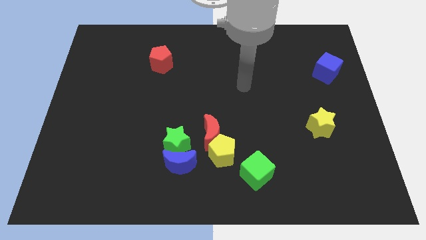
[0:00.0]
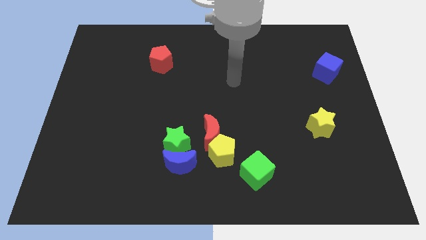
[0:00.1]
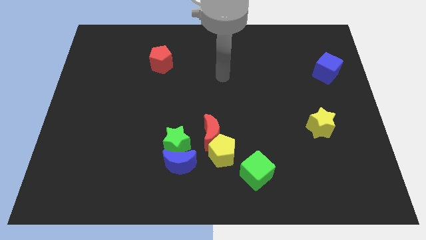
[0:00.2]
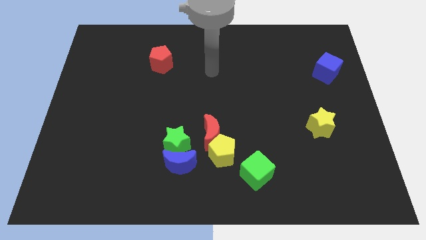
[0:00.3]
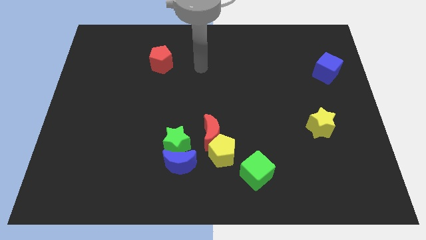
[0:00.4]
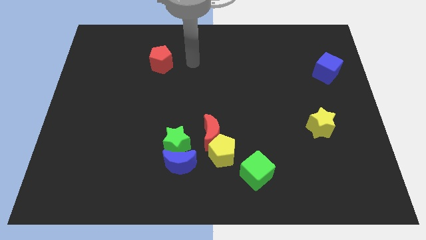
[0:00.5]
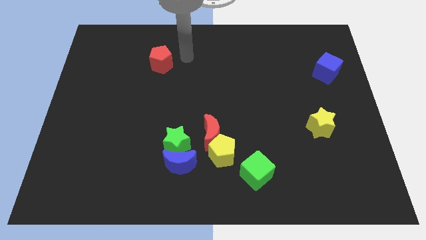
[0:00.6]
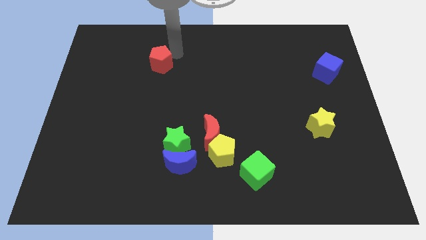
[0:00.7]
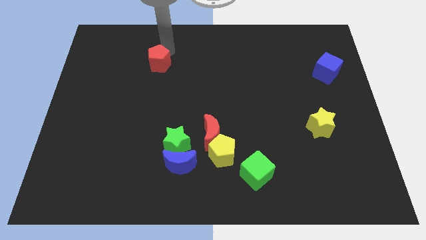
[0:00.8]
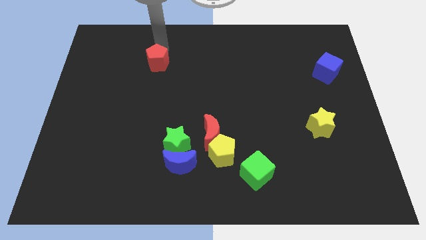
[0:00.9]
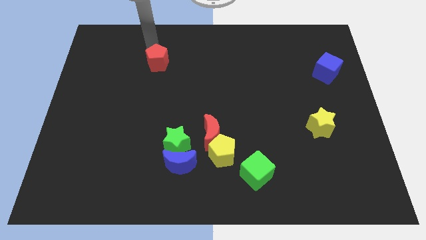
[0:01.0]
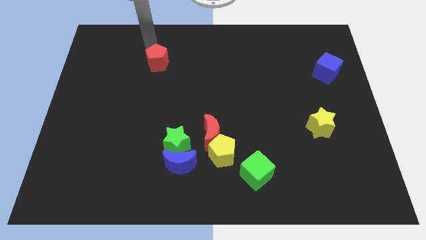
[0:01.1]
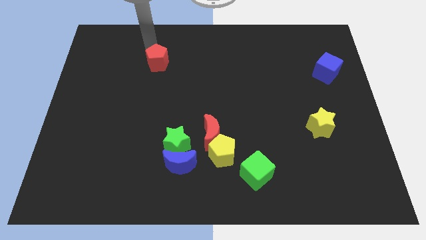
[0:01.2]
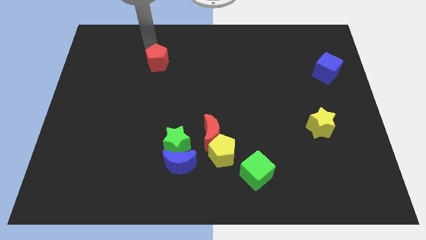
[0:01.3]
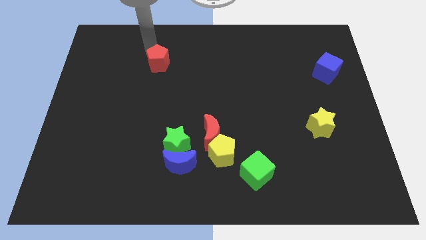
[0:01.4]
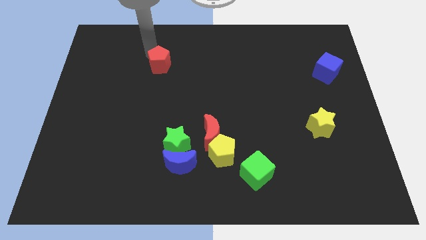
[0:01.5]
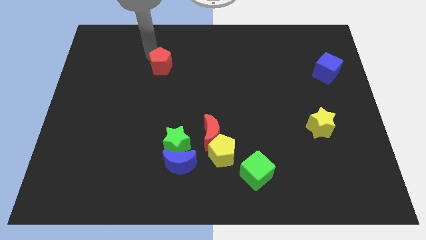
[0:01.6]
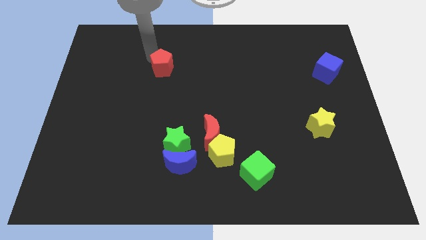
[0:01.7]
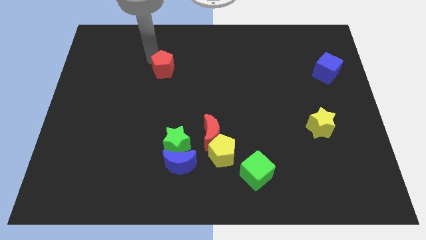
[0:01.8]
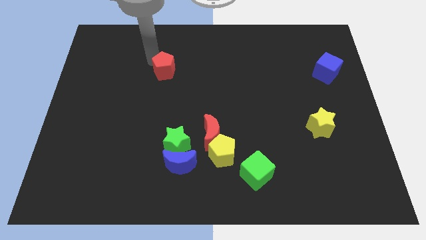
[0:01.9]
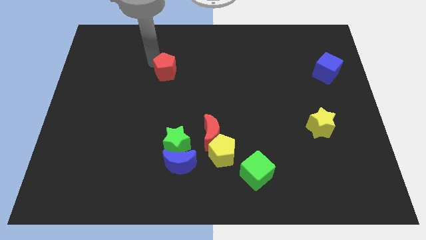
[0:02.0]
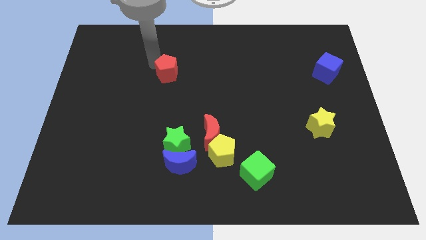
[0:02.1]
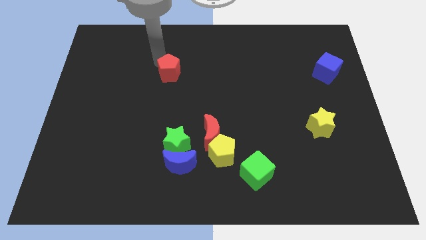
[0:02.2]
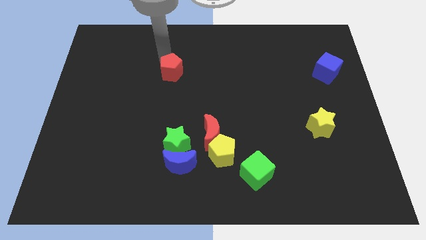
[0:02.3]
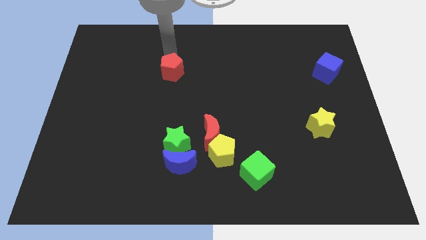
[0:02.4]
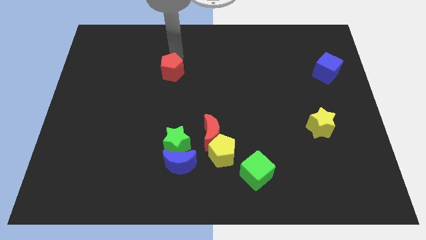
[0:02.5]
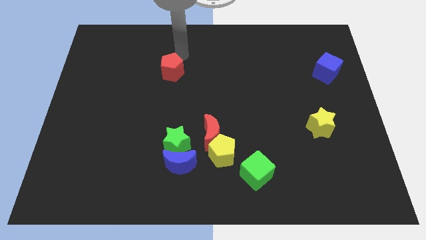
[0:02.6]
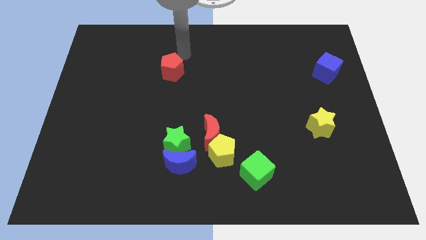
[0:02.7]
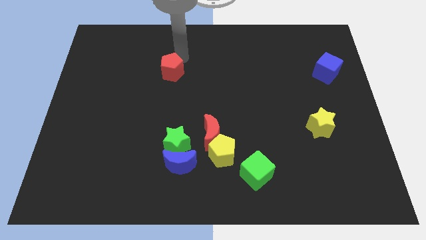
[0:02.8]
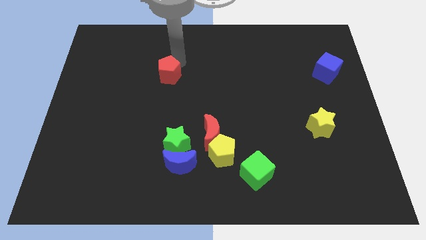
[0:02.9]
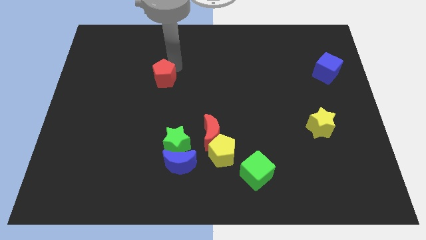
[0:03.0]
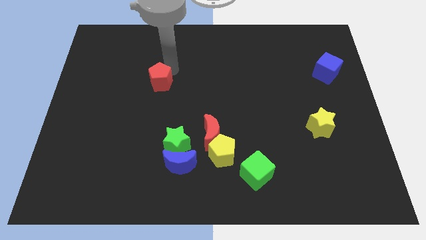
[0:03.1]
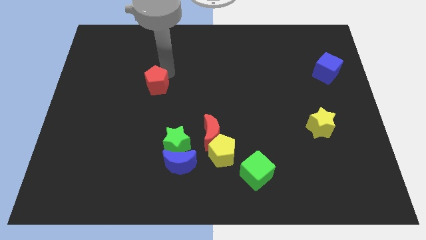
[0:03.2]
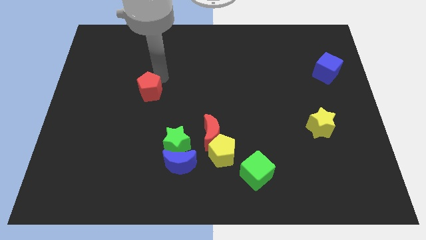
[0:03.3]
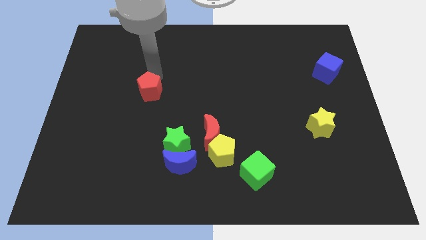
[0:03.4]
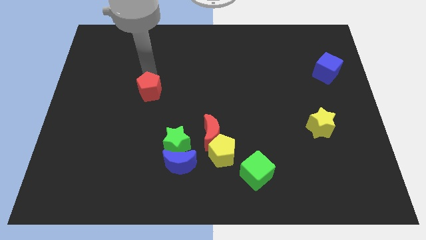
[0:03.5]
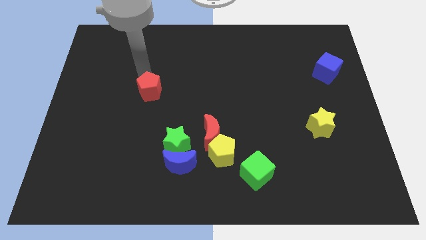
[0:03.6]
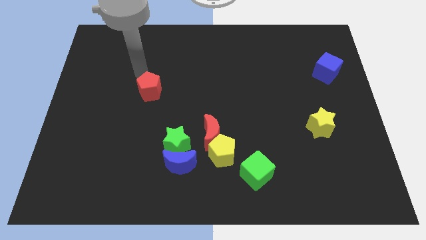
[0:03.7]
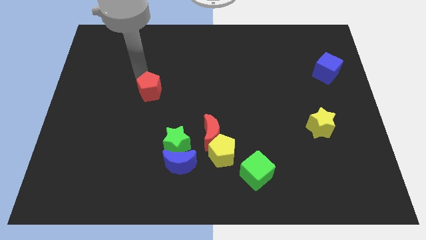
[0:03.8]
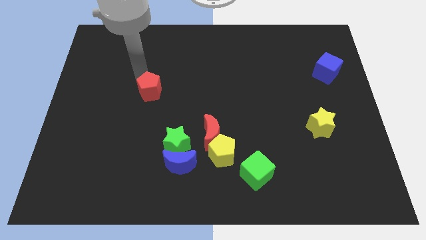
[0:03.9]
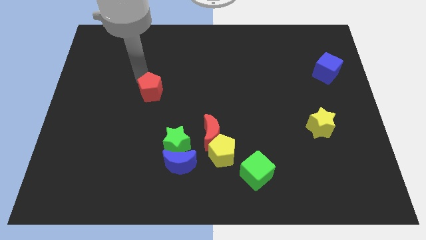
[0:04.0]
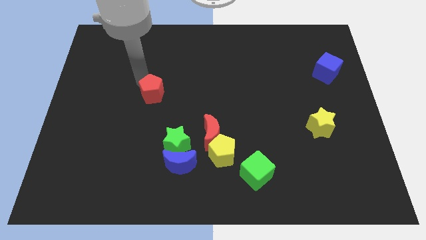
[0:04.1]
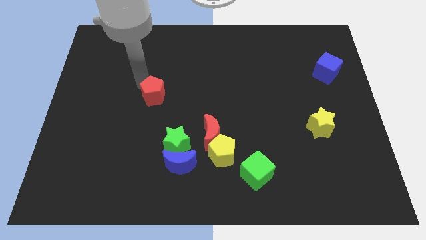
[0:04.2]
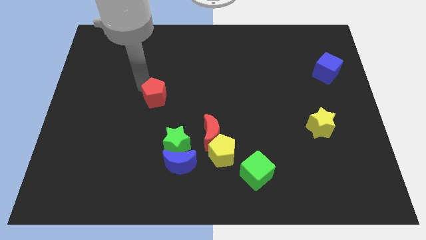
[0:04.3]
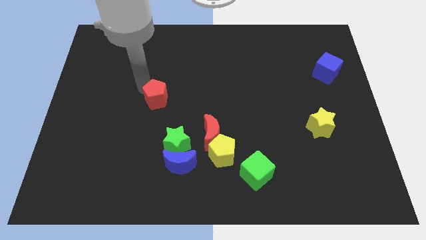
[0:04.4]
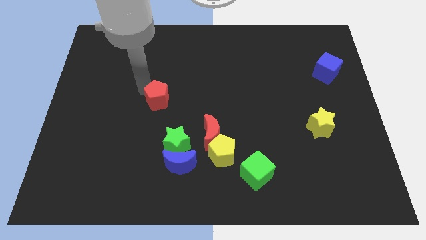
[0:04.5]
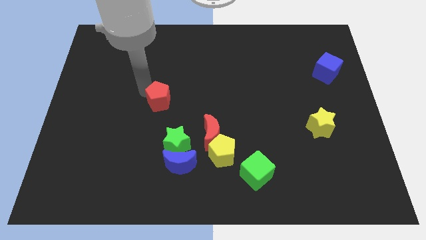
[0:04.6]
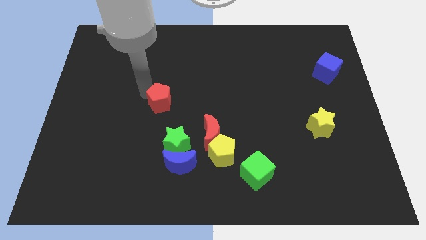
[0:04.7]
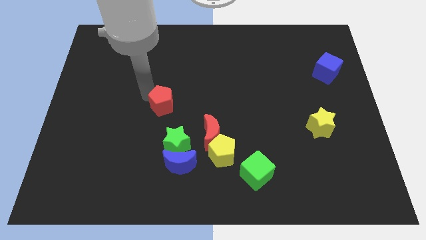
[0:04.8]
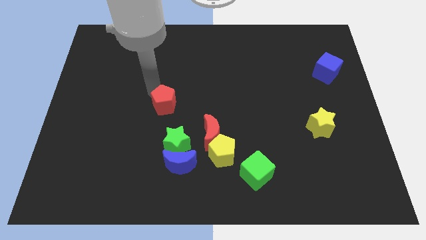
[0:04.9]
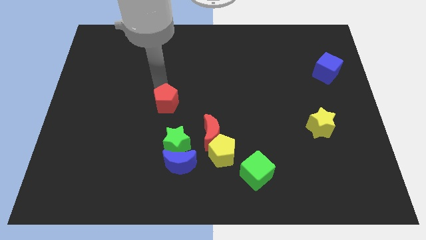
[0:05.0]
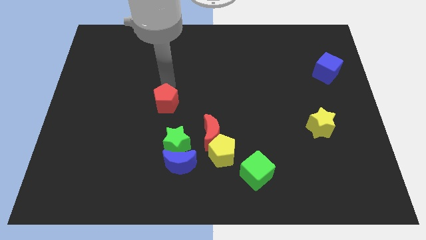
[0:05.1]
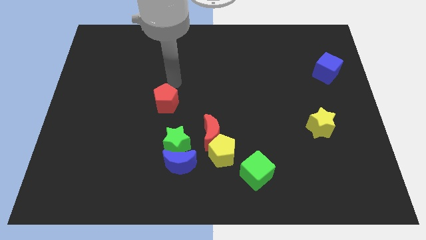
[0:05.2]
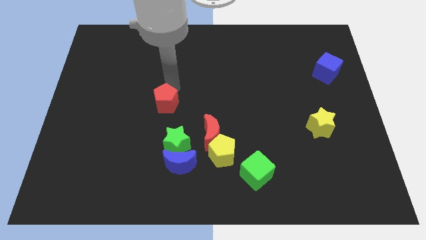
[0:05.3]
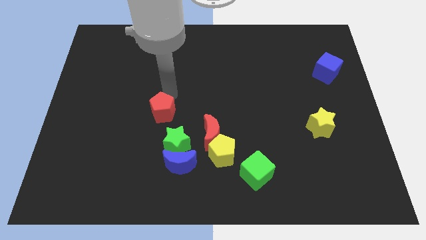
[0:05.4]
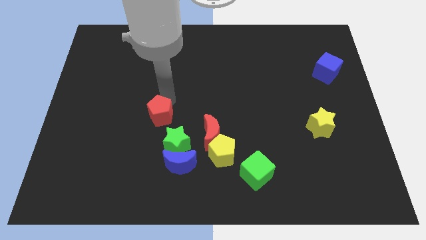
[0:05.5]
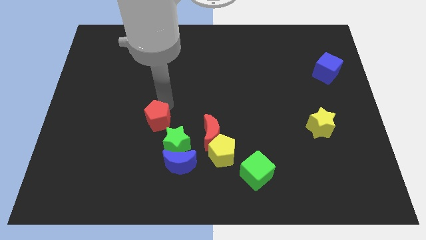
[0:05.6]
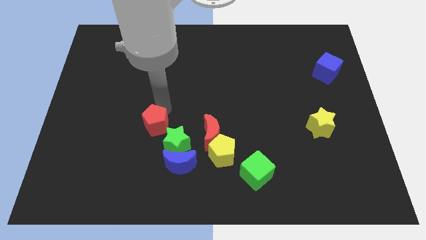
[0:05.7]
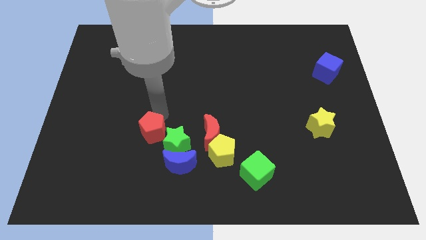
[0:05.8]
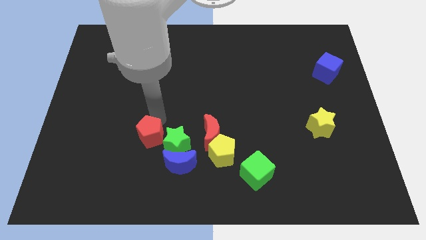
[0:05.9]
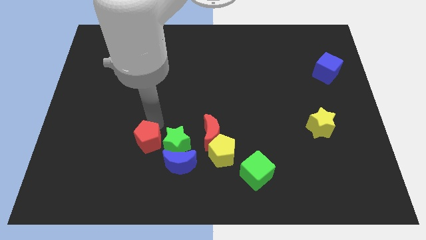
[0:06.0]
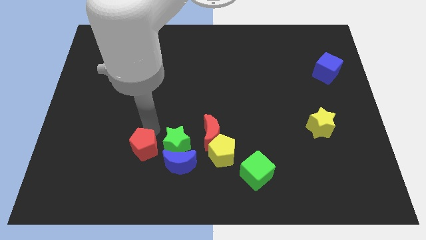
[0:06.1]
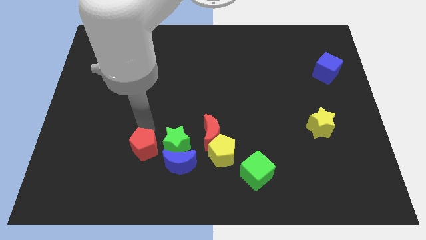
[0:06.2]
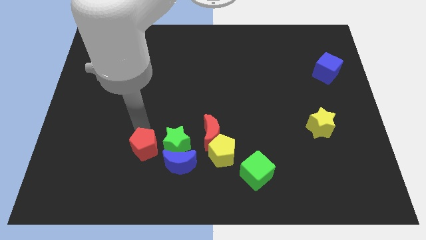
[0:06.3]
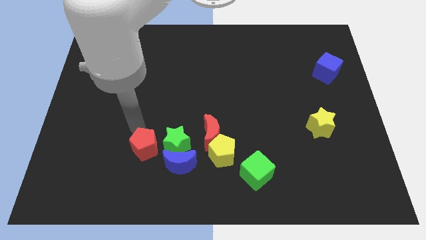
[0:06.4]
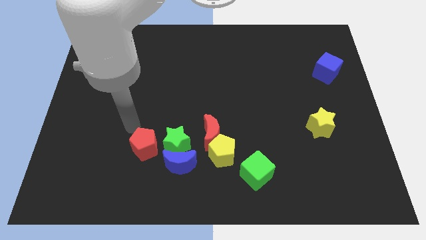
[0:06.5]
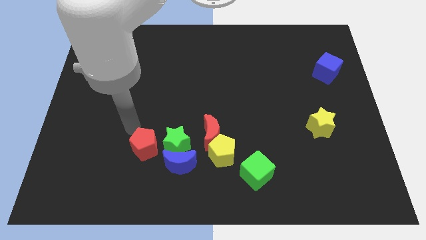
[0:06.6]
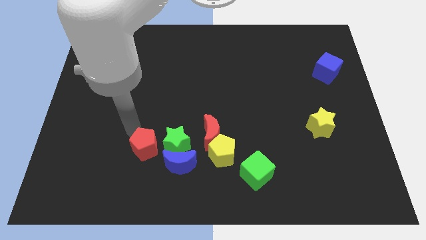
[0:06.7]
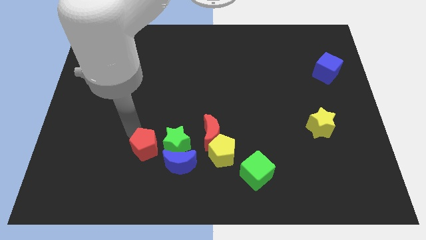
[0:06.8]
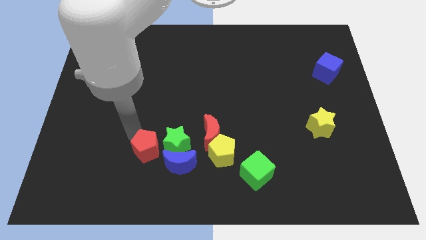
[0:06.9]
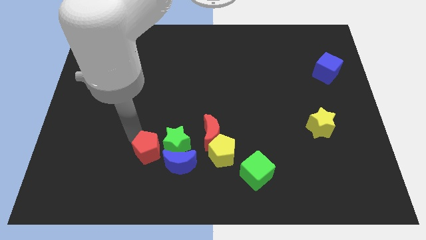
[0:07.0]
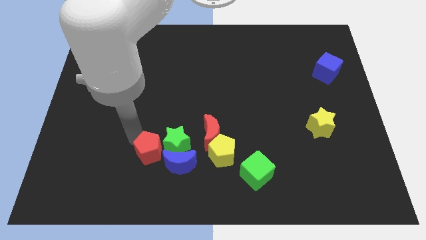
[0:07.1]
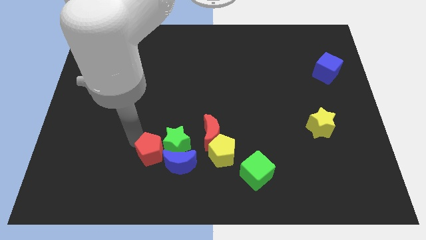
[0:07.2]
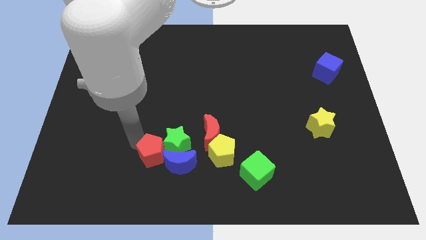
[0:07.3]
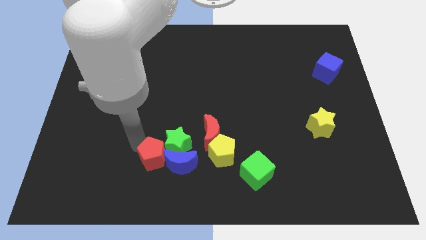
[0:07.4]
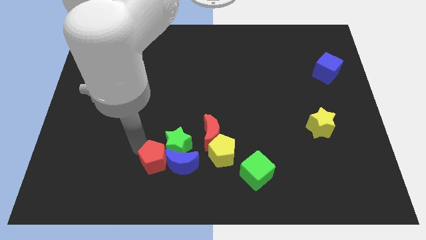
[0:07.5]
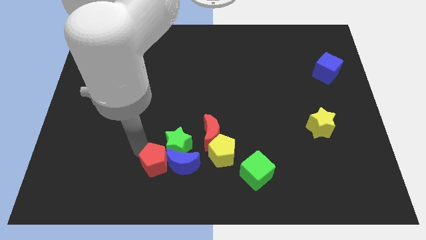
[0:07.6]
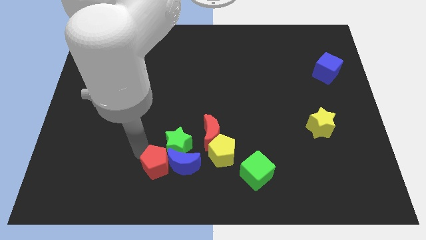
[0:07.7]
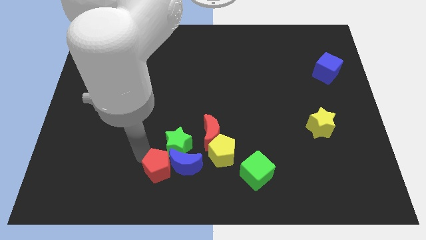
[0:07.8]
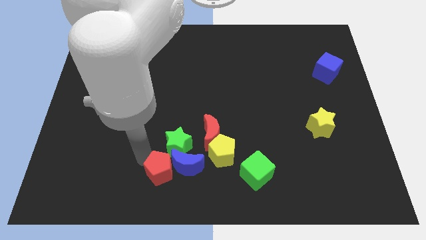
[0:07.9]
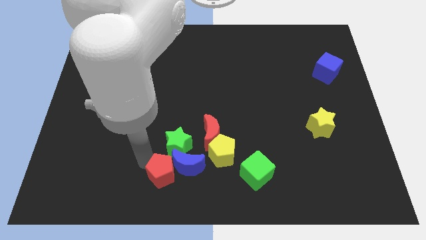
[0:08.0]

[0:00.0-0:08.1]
push the red pentagon to the bottom
